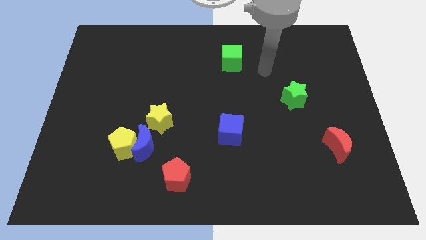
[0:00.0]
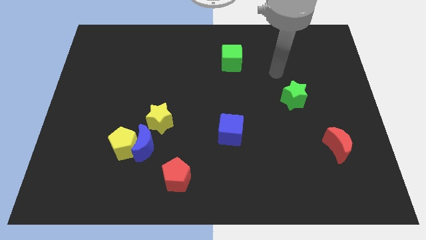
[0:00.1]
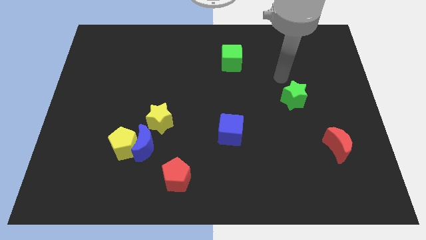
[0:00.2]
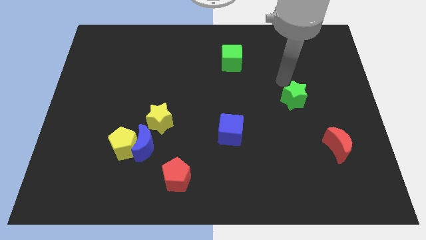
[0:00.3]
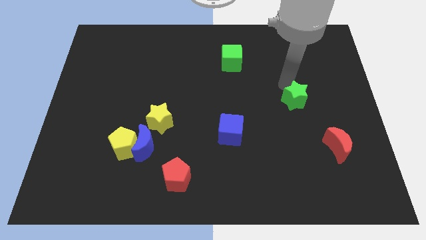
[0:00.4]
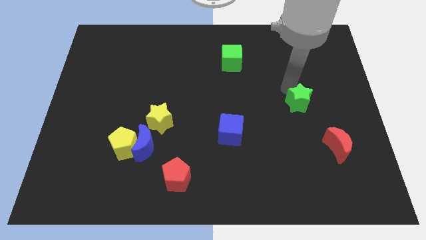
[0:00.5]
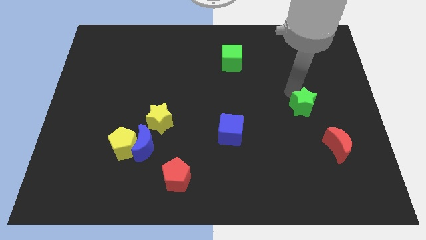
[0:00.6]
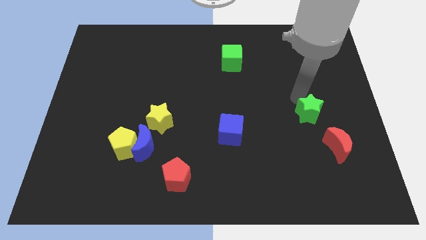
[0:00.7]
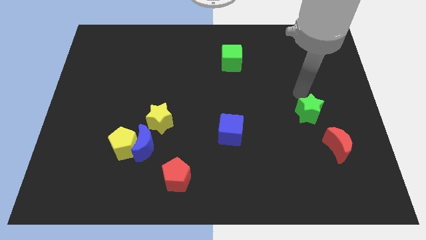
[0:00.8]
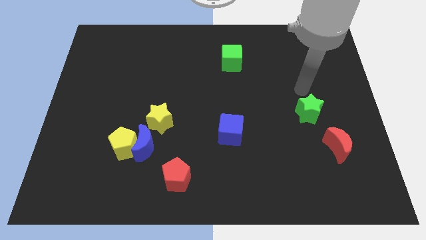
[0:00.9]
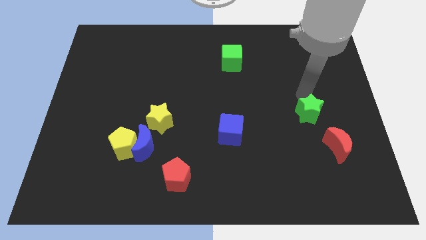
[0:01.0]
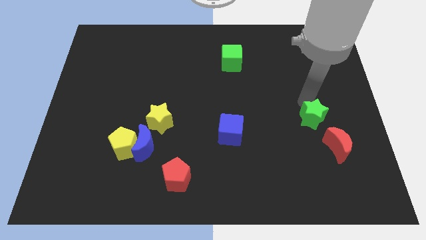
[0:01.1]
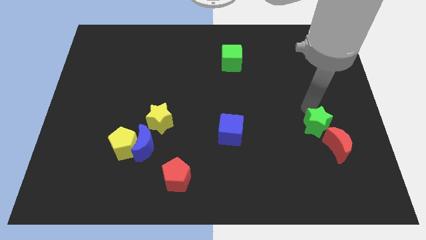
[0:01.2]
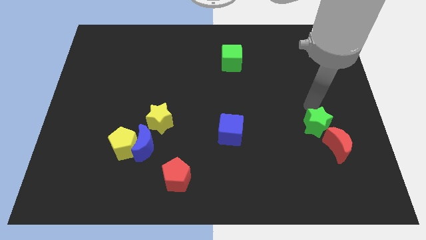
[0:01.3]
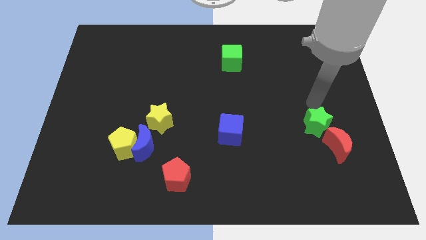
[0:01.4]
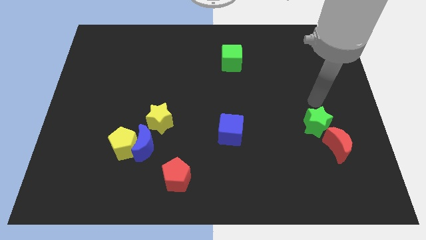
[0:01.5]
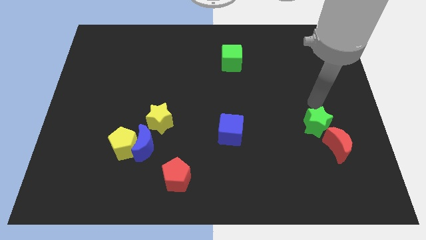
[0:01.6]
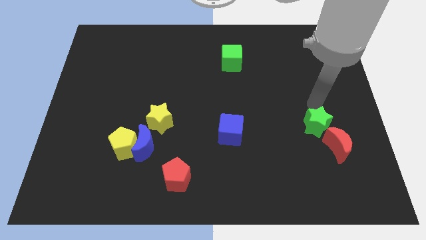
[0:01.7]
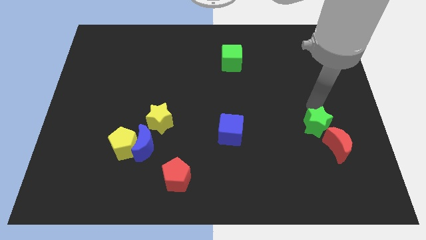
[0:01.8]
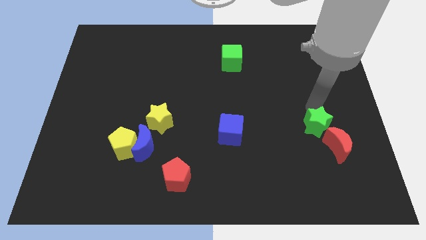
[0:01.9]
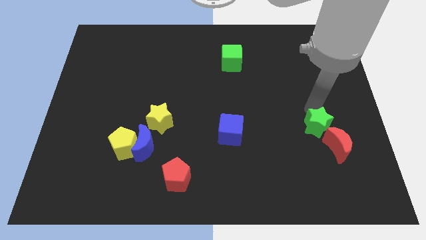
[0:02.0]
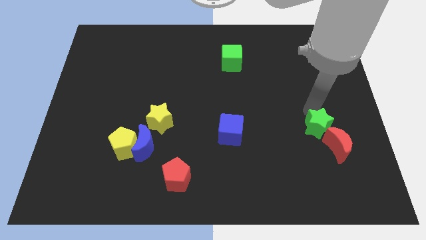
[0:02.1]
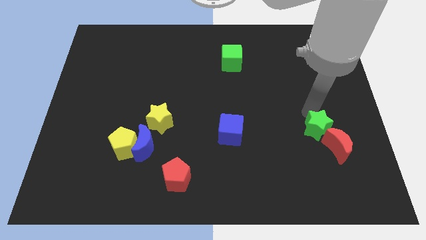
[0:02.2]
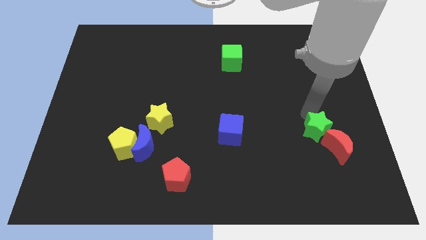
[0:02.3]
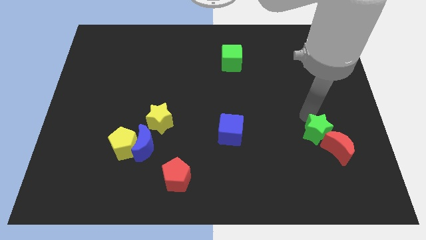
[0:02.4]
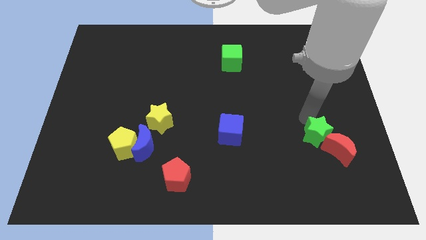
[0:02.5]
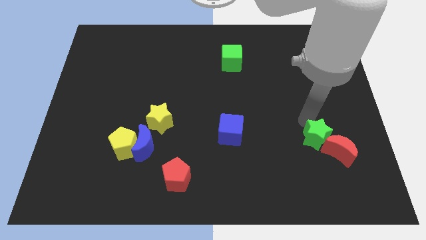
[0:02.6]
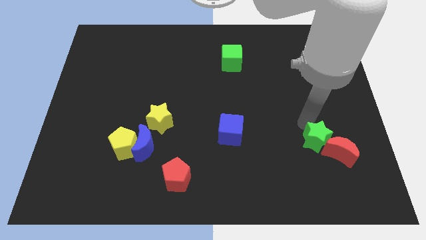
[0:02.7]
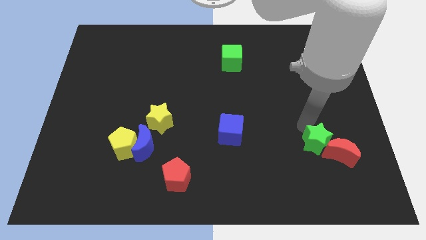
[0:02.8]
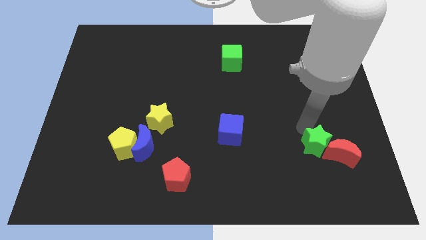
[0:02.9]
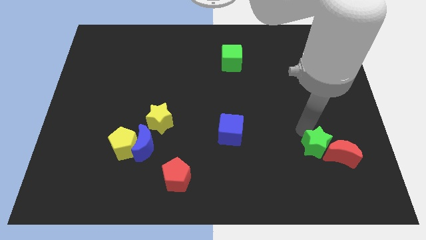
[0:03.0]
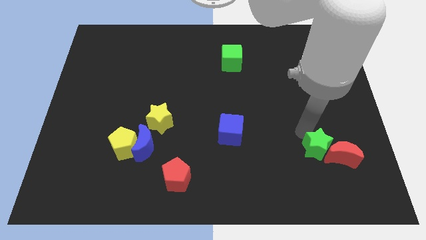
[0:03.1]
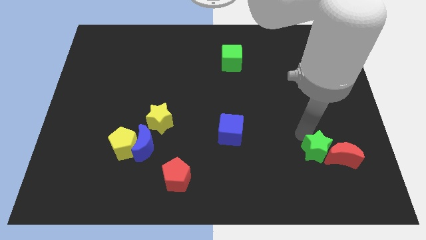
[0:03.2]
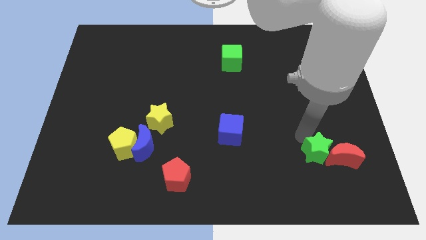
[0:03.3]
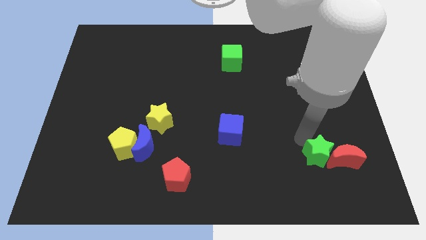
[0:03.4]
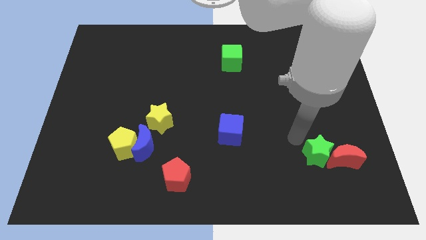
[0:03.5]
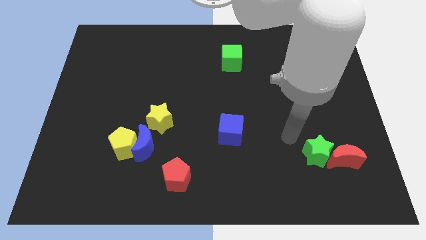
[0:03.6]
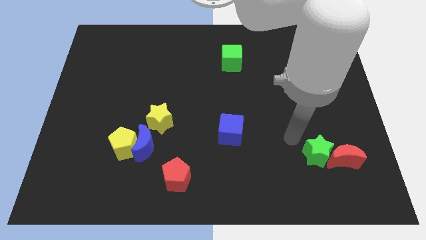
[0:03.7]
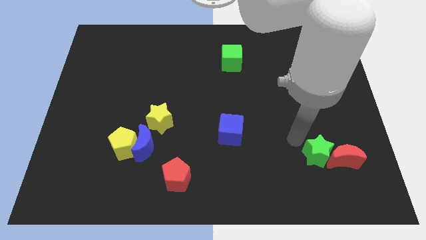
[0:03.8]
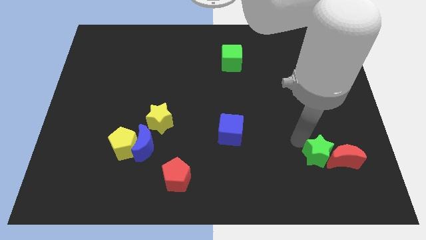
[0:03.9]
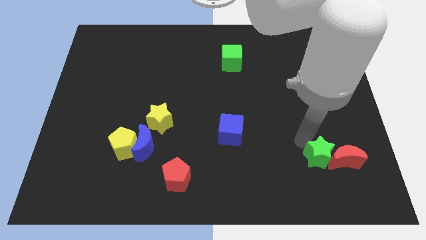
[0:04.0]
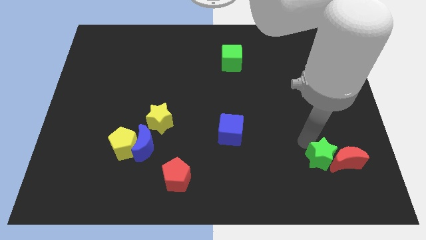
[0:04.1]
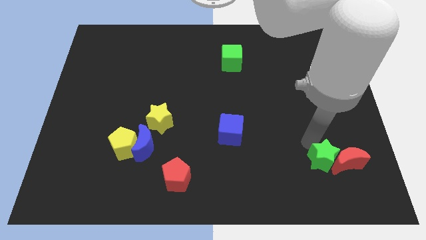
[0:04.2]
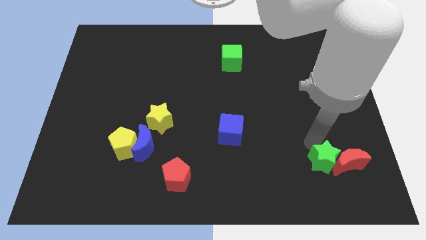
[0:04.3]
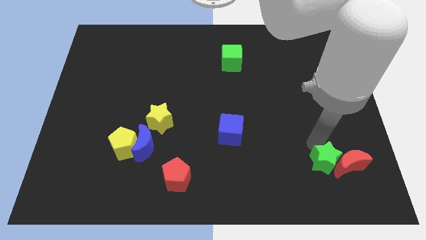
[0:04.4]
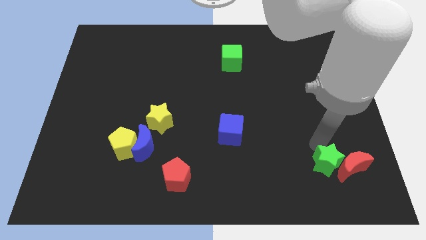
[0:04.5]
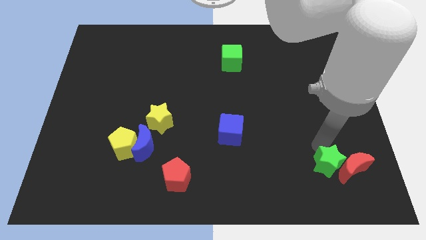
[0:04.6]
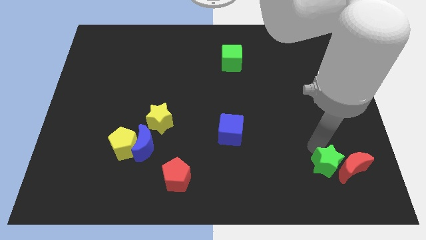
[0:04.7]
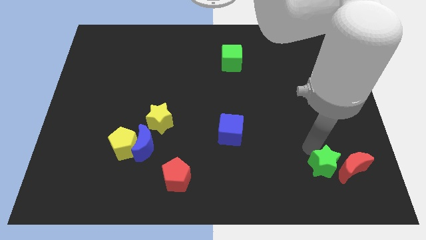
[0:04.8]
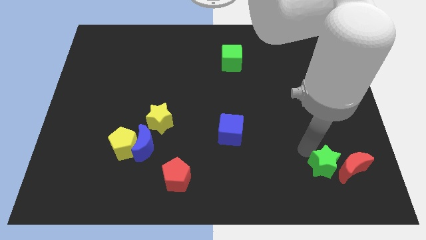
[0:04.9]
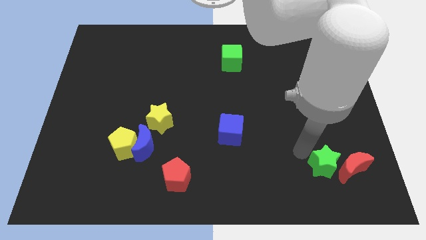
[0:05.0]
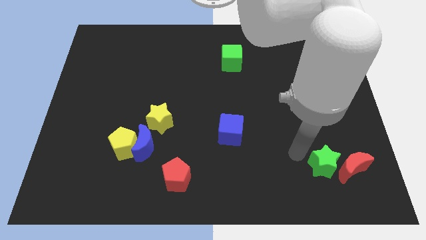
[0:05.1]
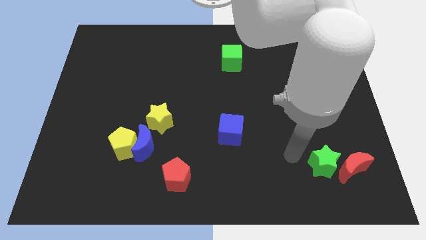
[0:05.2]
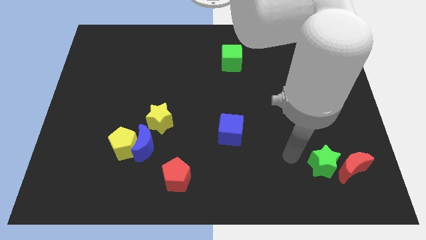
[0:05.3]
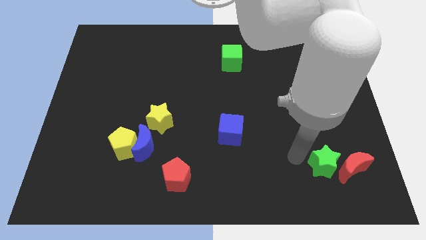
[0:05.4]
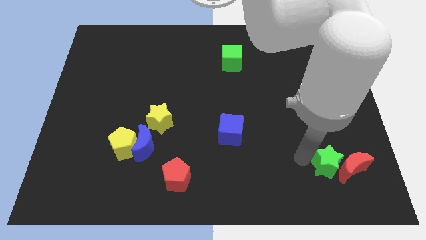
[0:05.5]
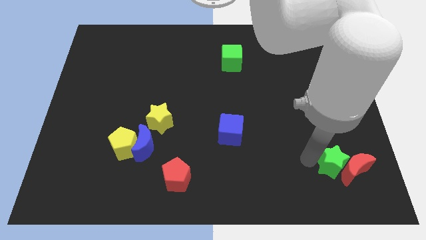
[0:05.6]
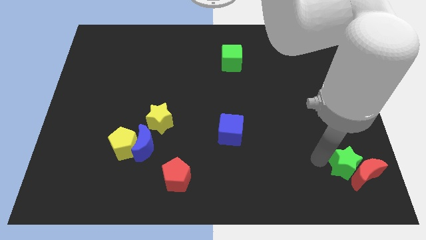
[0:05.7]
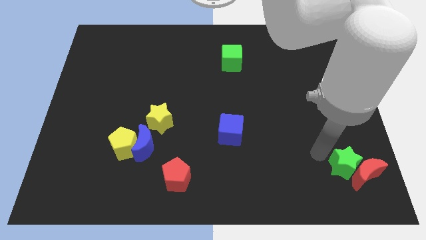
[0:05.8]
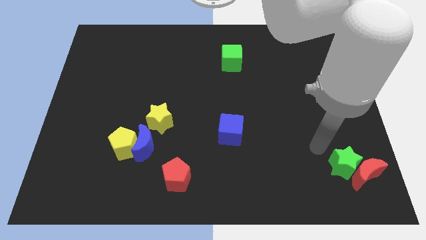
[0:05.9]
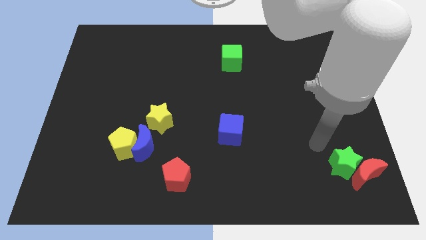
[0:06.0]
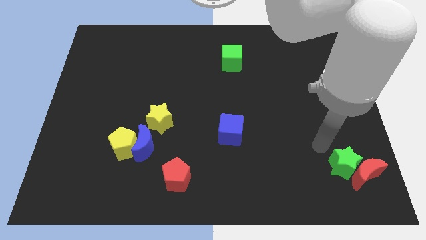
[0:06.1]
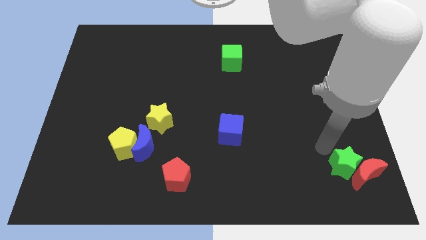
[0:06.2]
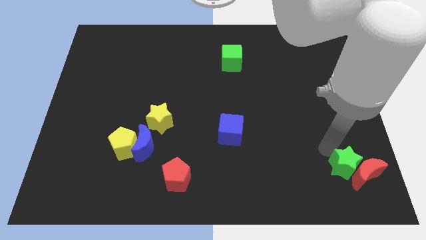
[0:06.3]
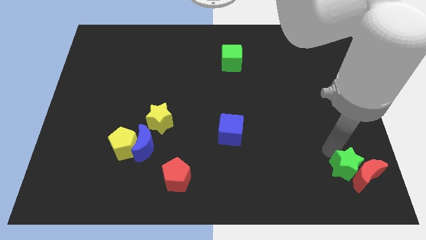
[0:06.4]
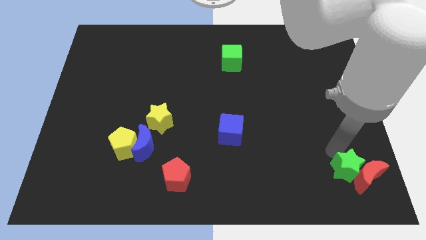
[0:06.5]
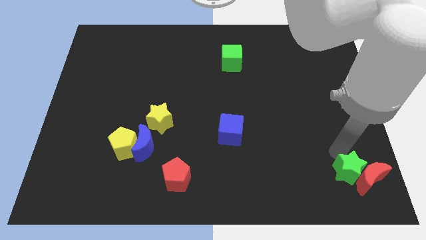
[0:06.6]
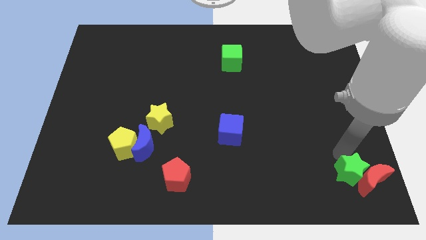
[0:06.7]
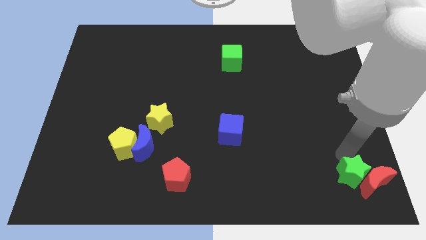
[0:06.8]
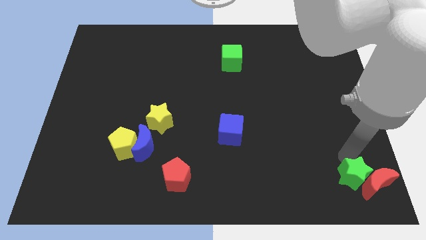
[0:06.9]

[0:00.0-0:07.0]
slide the green star to the bottom right
